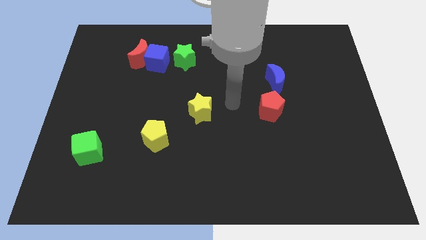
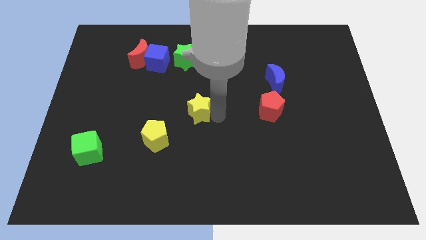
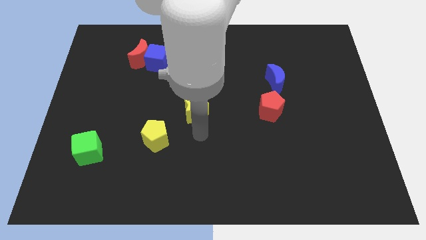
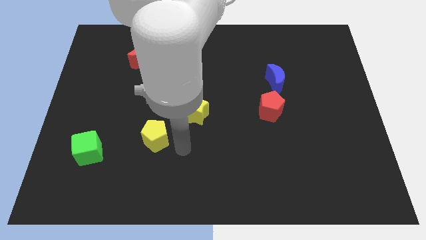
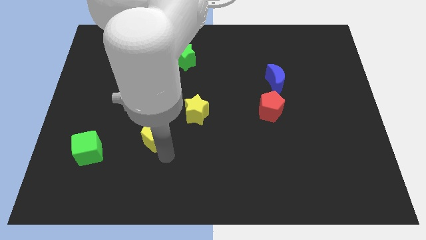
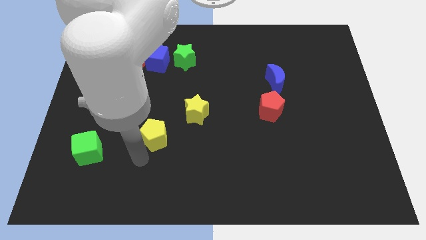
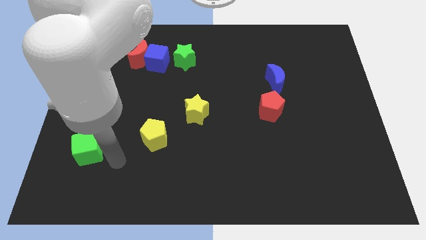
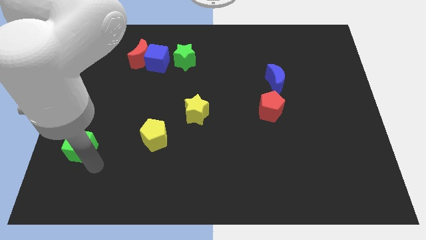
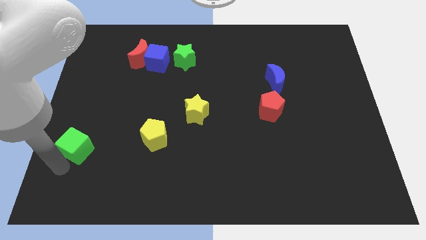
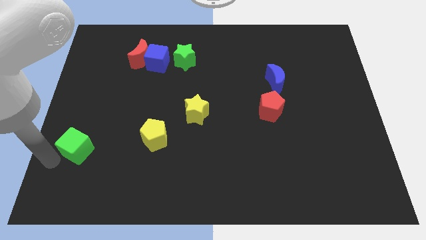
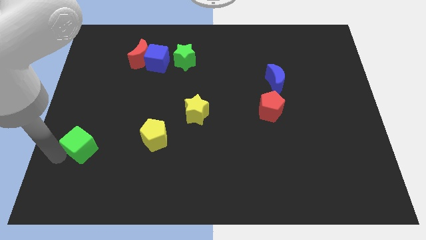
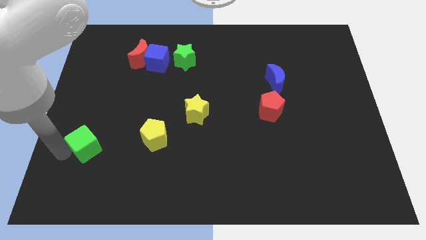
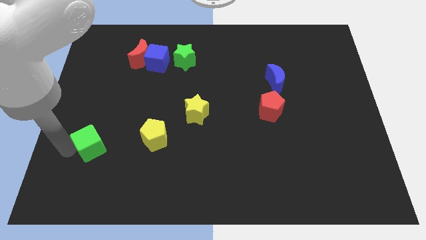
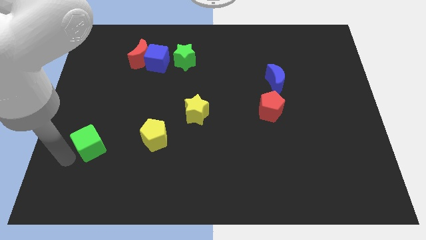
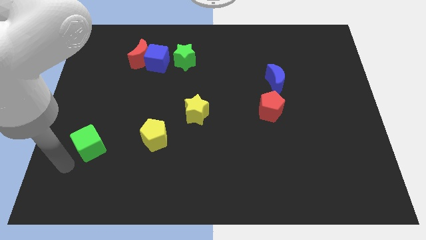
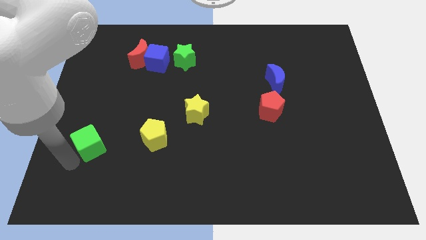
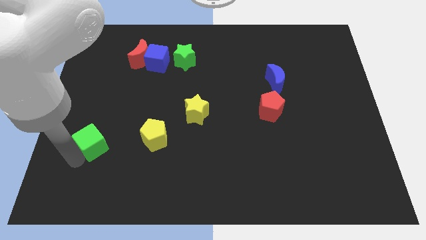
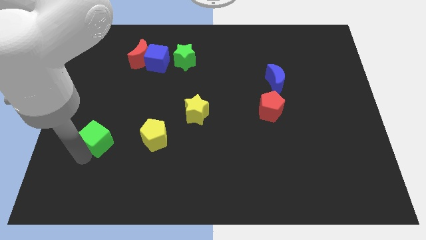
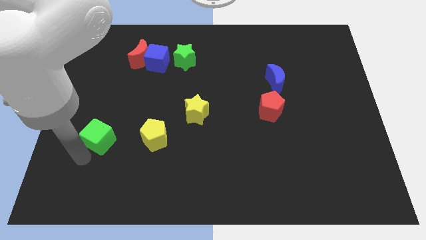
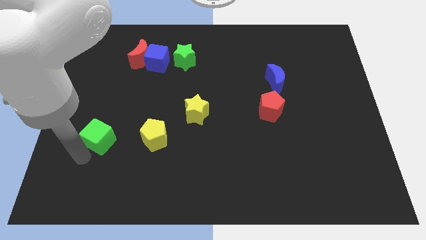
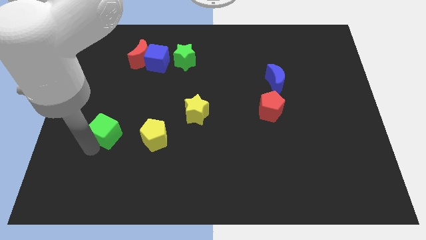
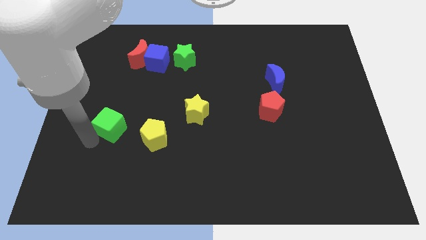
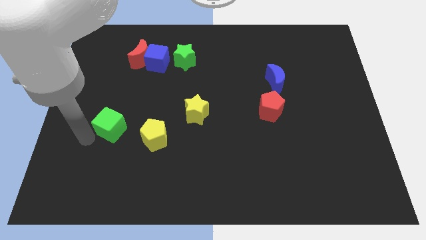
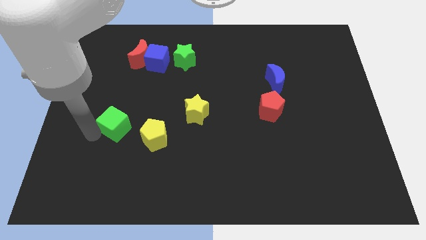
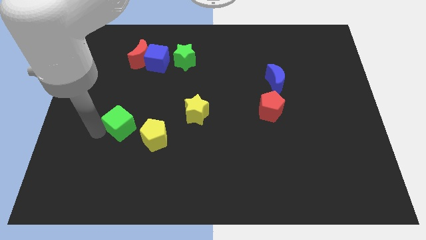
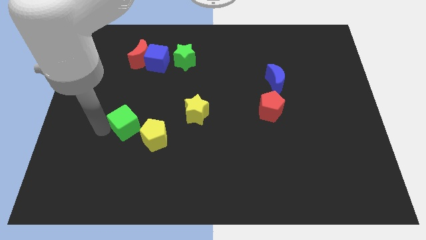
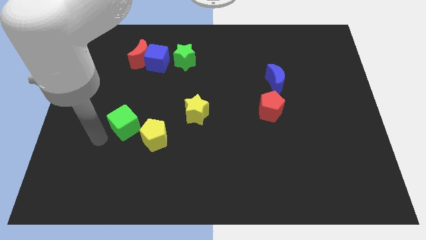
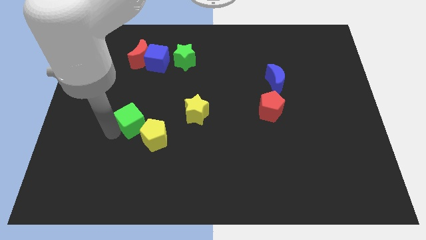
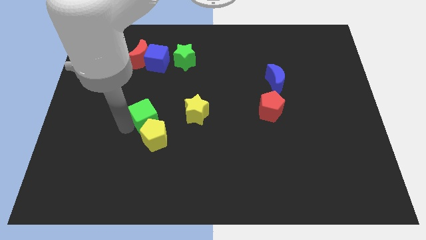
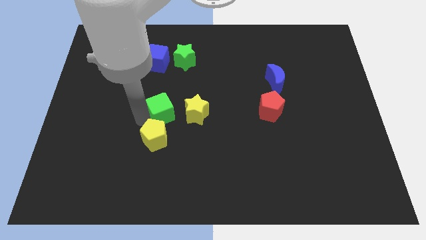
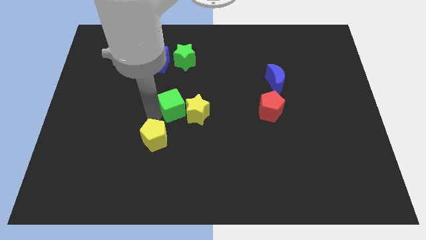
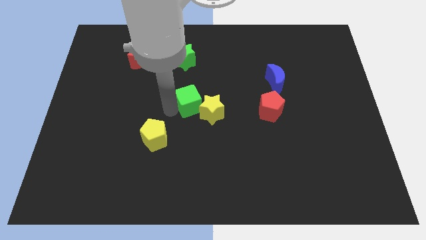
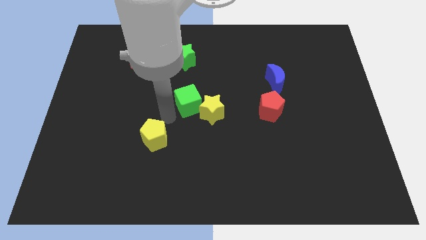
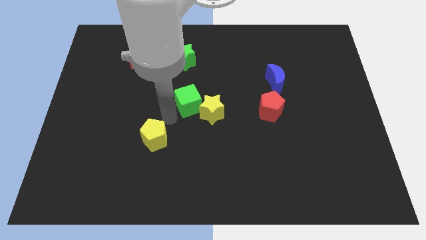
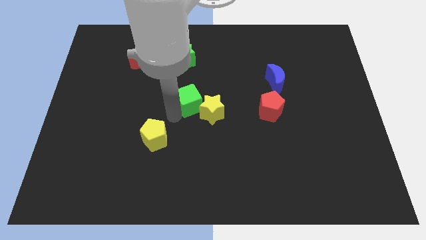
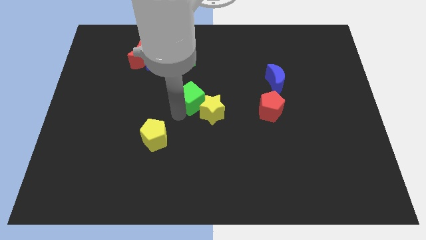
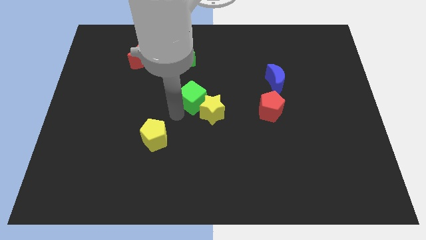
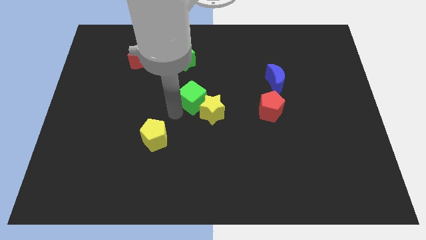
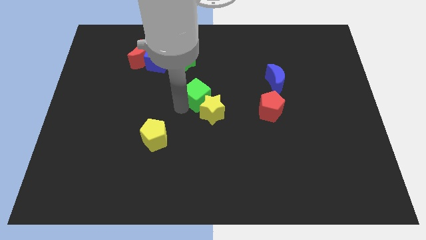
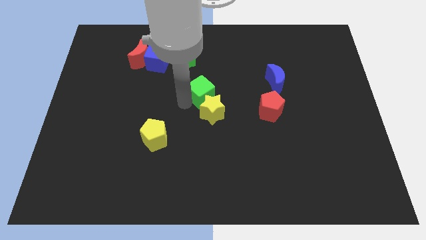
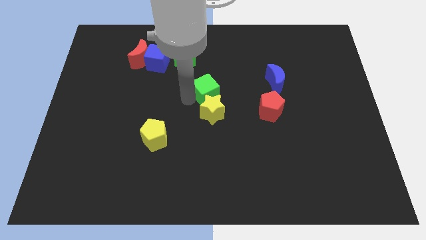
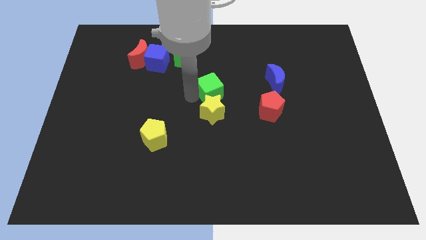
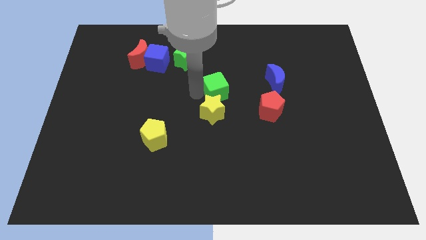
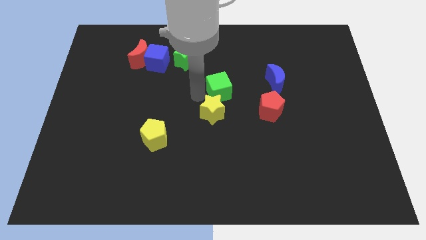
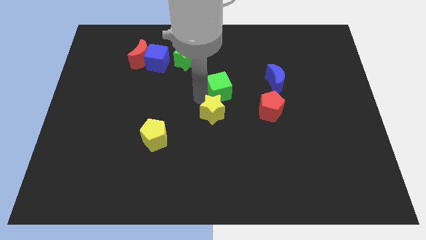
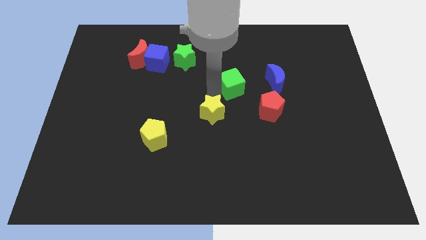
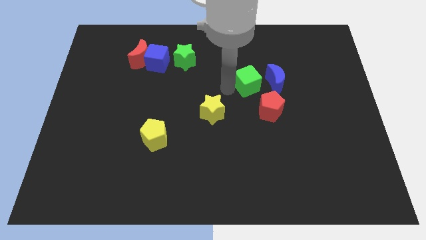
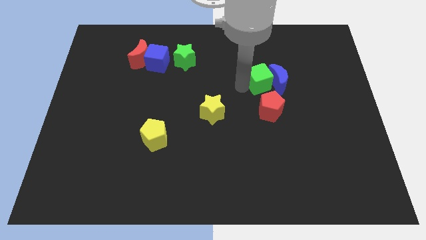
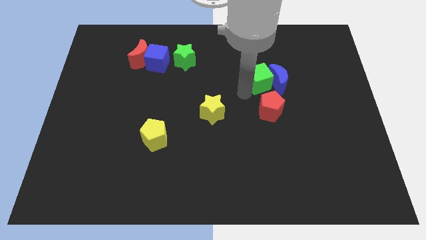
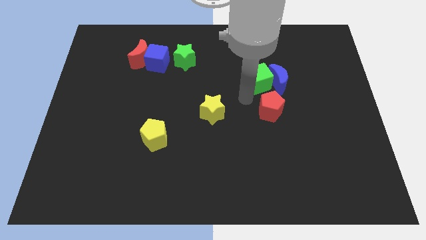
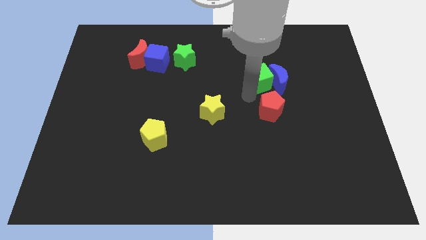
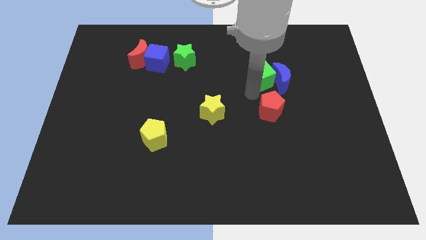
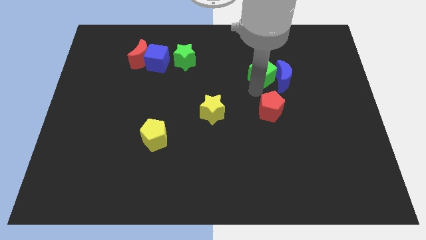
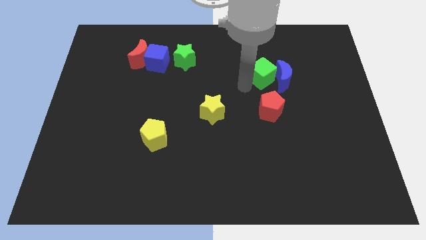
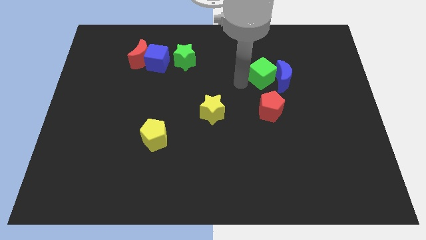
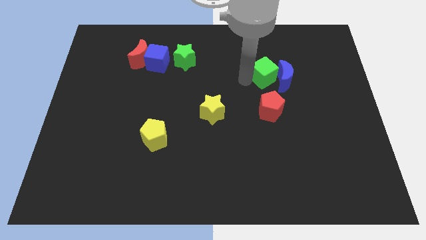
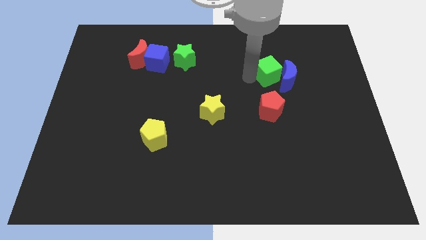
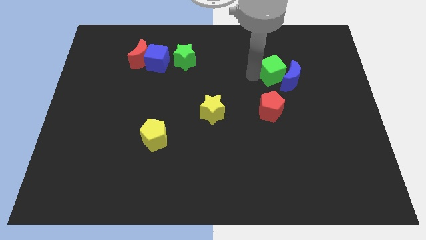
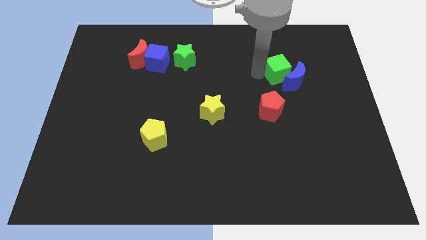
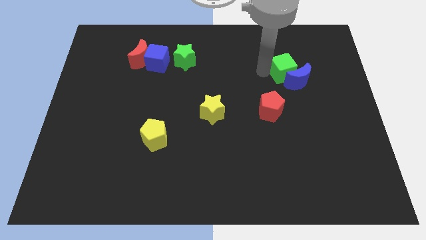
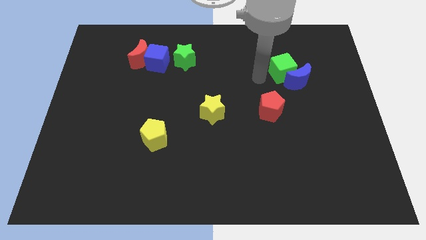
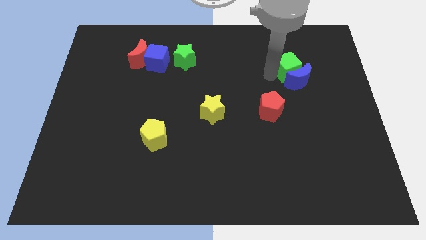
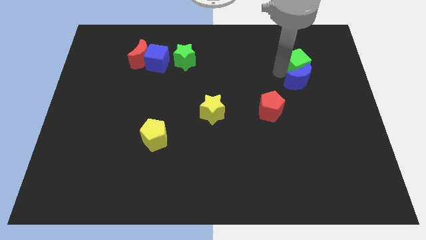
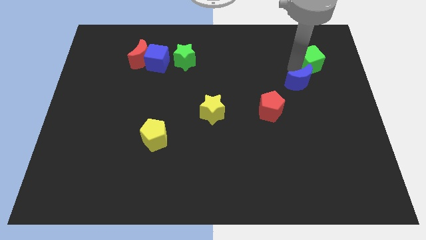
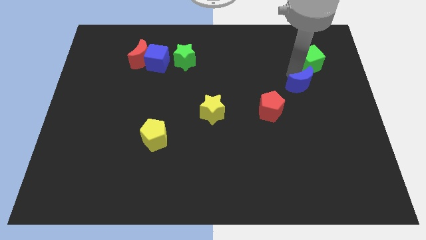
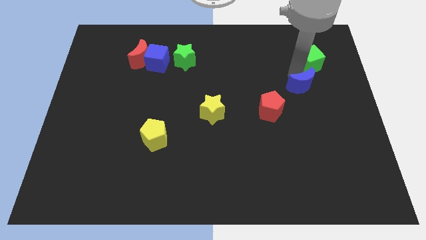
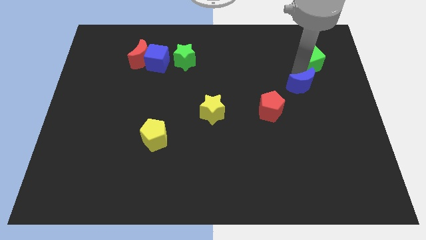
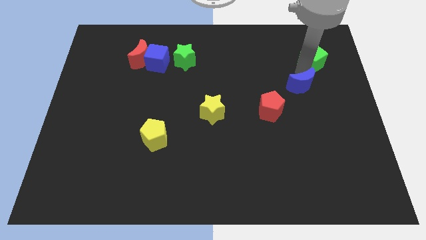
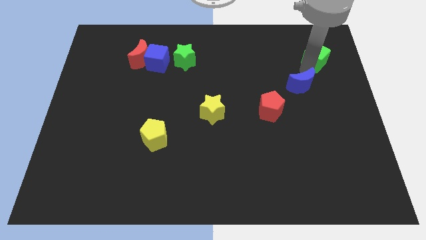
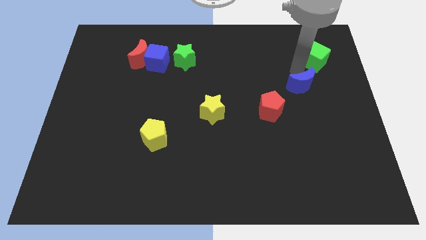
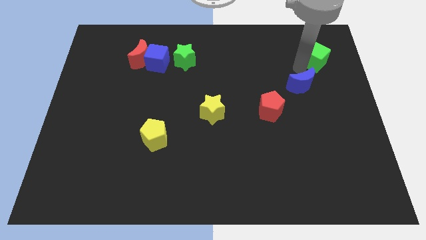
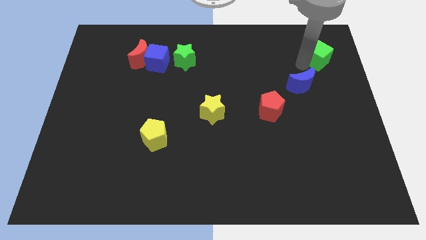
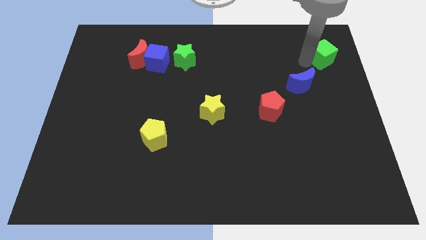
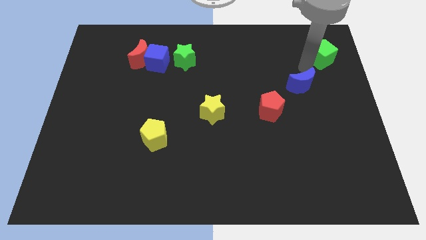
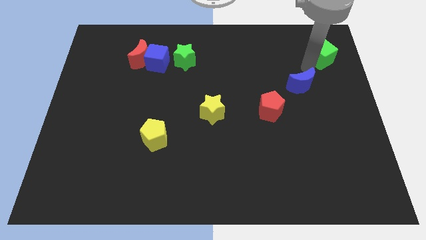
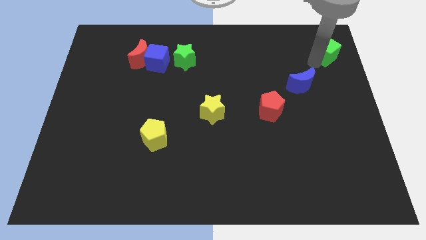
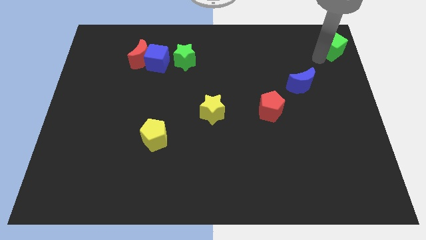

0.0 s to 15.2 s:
move the green cube to the top right

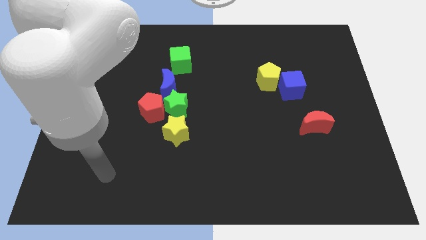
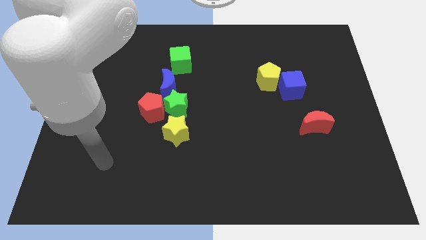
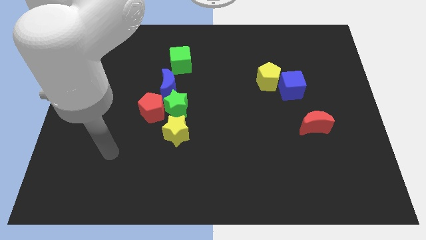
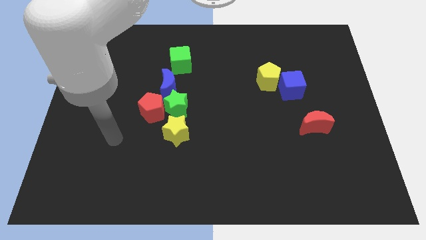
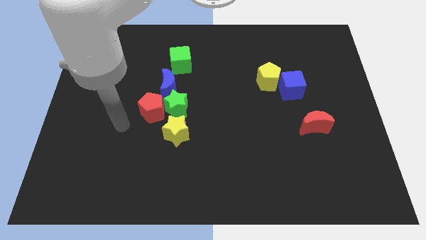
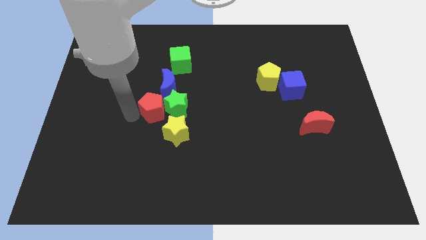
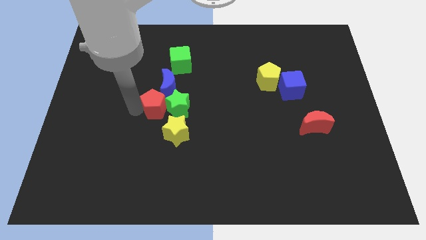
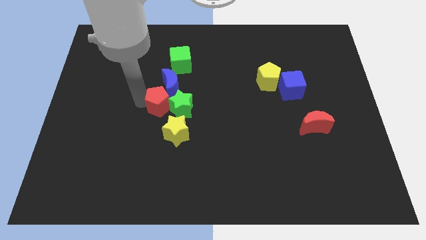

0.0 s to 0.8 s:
move the red pentagon to the middle of the board
